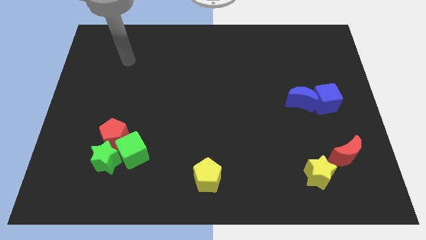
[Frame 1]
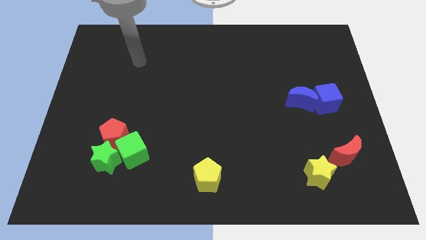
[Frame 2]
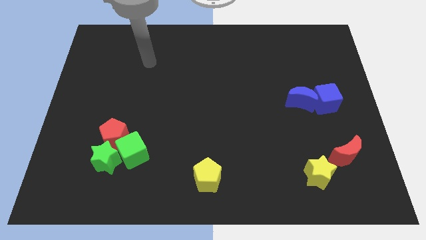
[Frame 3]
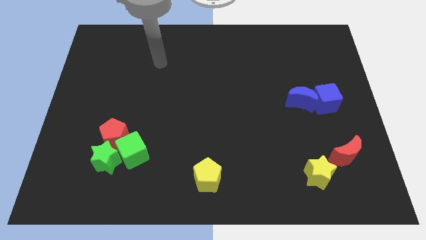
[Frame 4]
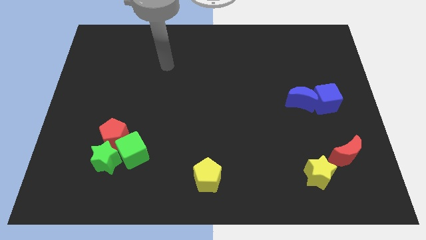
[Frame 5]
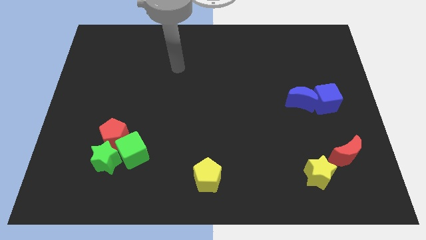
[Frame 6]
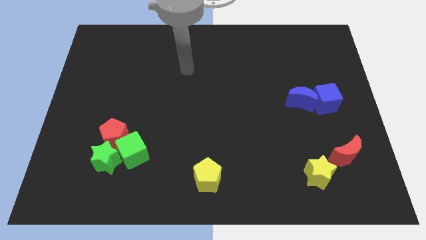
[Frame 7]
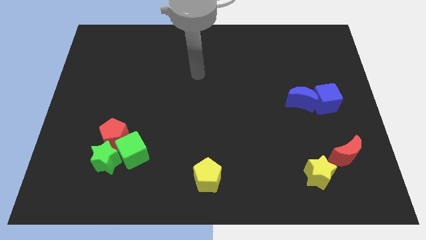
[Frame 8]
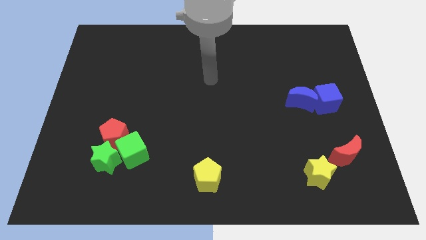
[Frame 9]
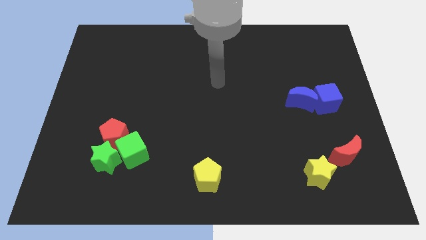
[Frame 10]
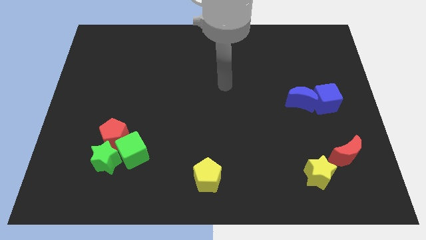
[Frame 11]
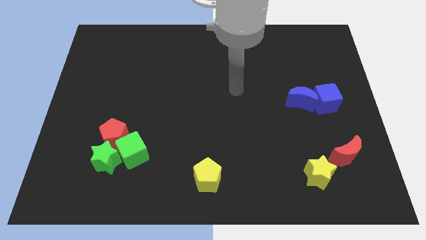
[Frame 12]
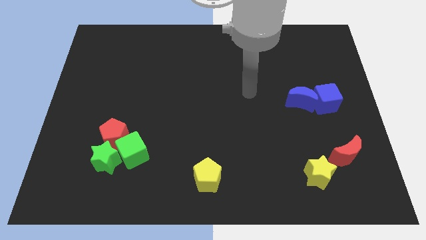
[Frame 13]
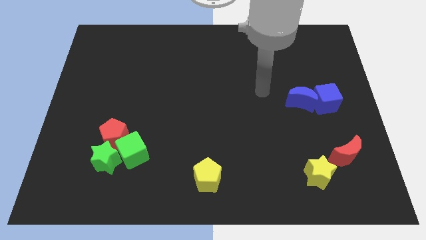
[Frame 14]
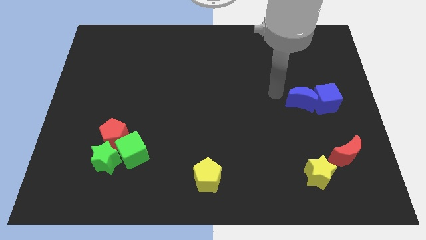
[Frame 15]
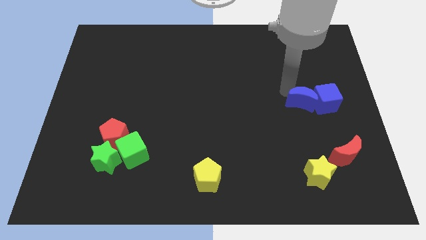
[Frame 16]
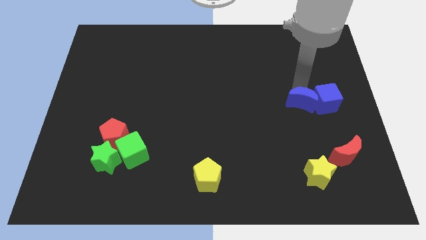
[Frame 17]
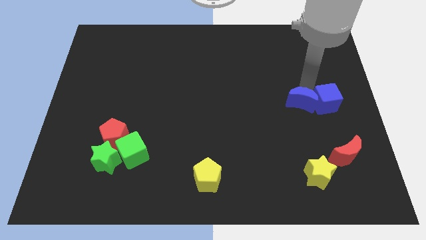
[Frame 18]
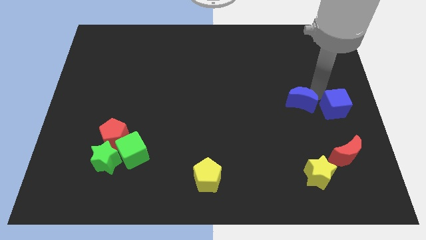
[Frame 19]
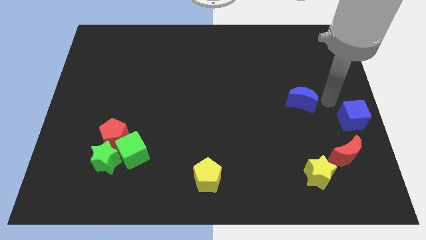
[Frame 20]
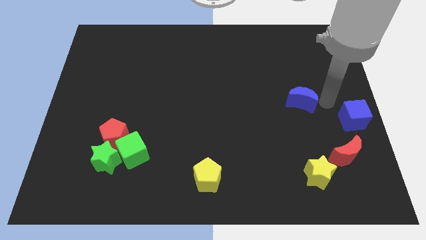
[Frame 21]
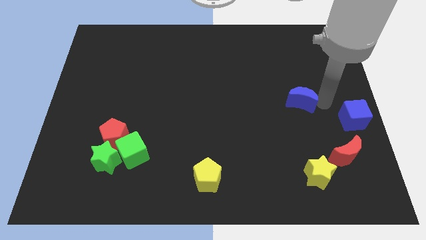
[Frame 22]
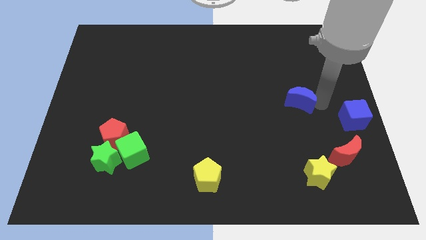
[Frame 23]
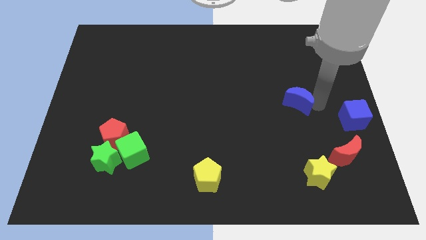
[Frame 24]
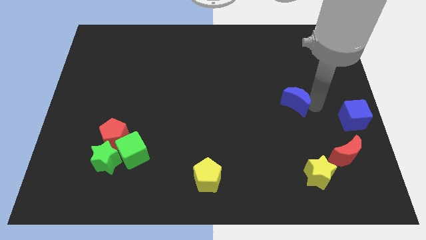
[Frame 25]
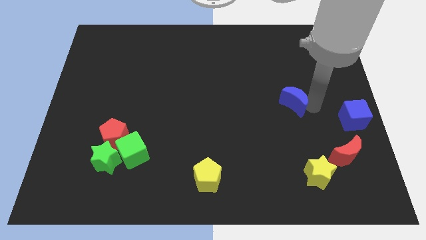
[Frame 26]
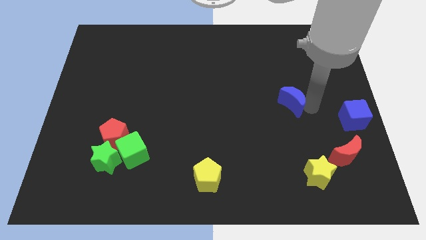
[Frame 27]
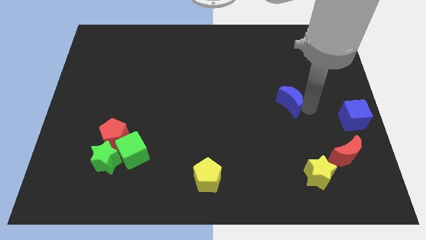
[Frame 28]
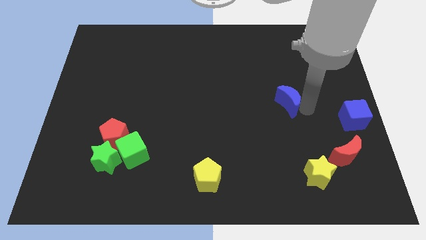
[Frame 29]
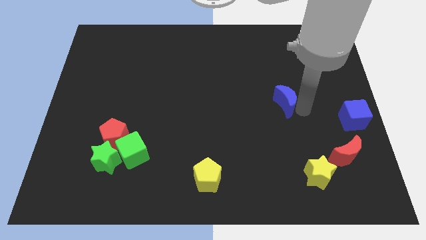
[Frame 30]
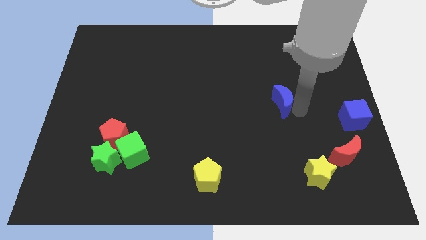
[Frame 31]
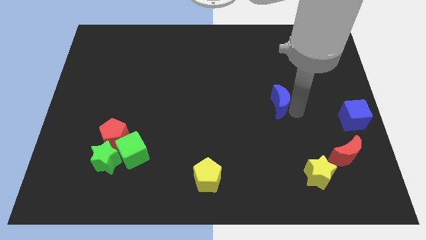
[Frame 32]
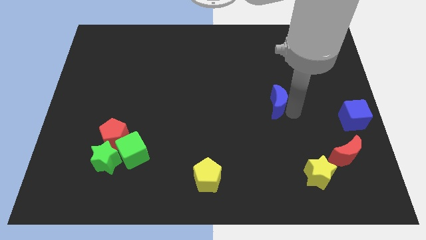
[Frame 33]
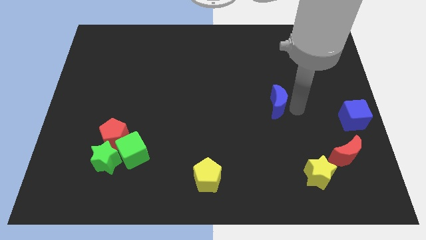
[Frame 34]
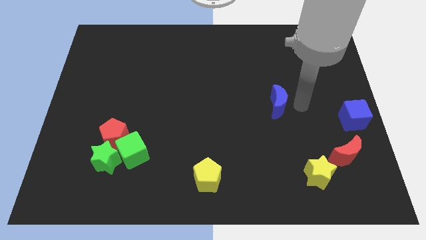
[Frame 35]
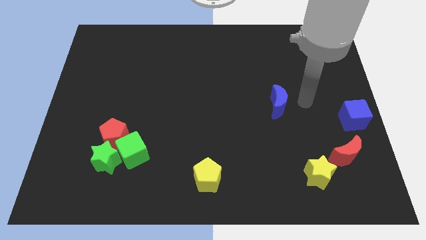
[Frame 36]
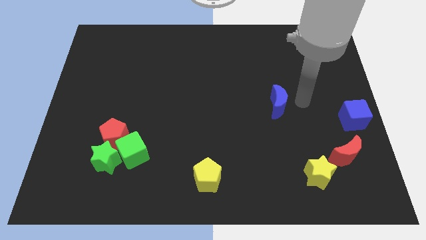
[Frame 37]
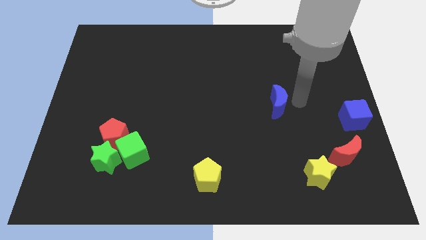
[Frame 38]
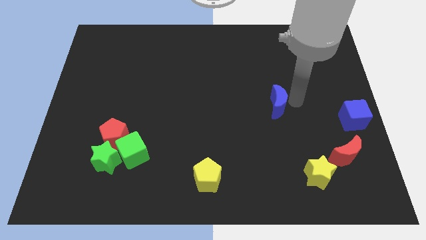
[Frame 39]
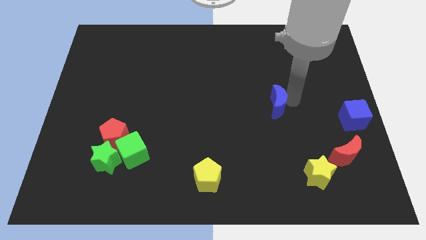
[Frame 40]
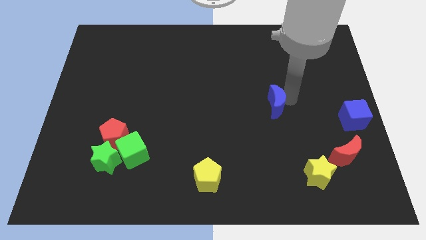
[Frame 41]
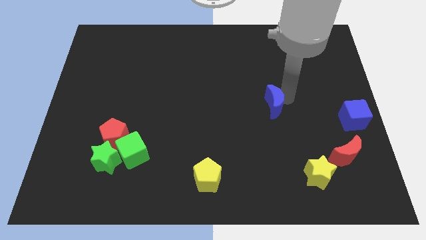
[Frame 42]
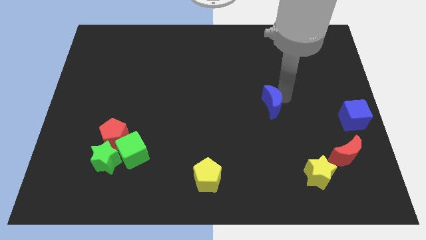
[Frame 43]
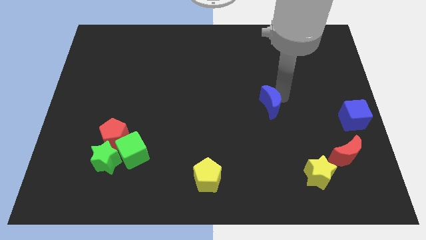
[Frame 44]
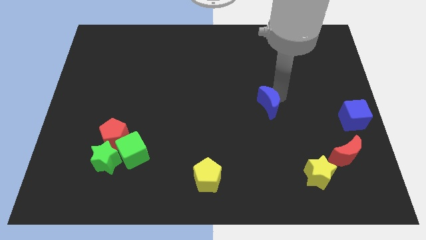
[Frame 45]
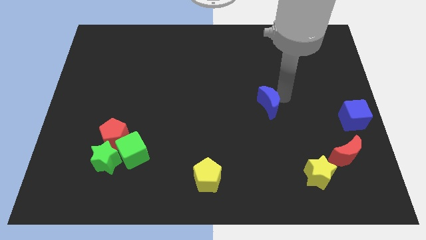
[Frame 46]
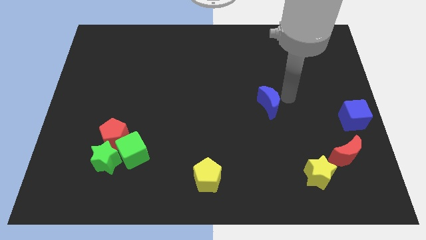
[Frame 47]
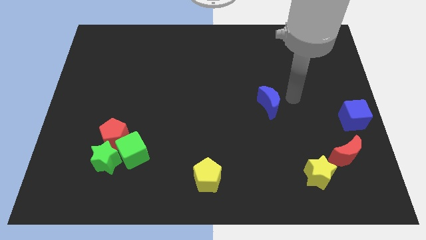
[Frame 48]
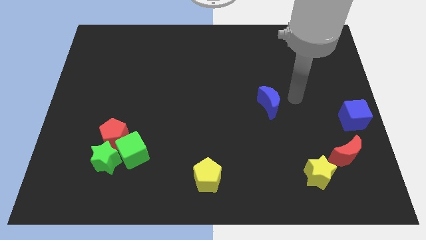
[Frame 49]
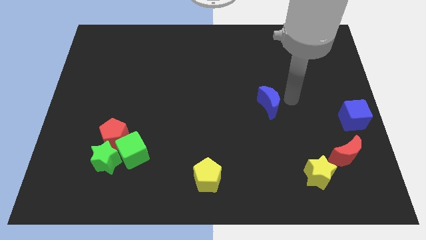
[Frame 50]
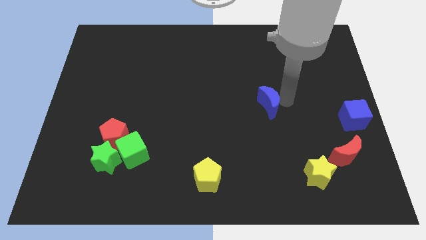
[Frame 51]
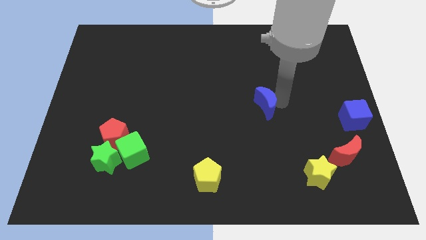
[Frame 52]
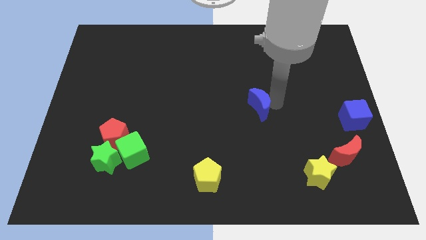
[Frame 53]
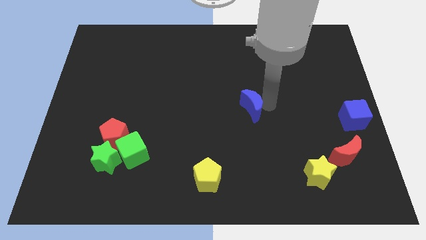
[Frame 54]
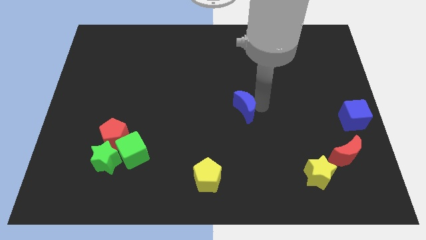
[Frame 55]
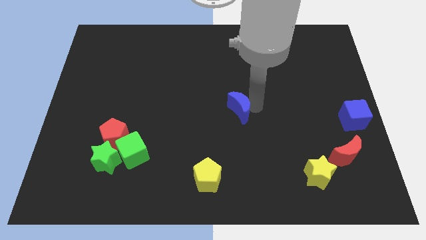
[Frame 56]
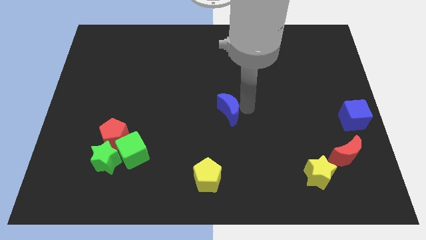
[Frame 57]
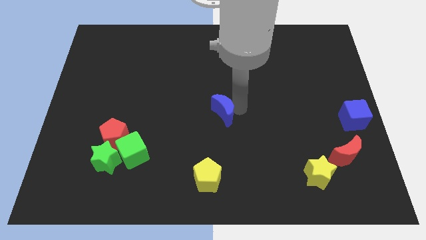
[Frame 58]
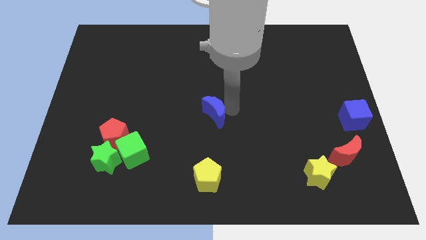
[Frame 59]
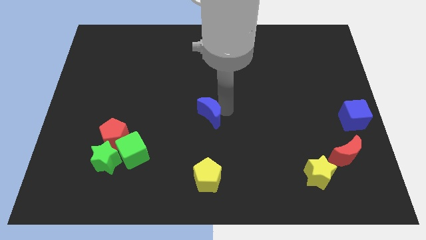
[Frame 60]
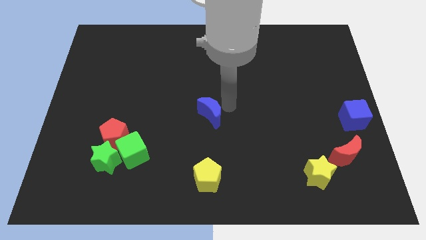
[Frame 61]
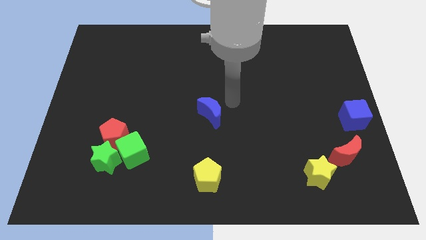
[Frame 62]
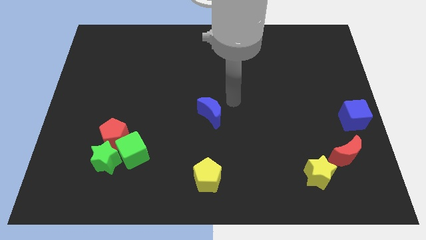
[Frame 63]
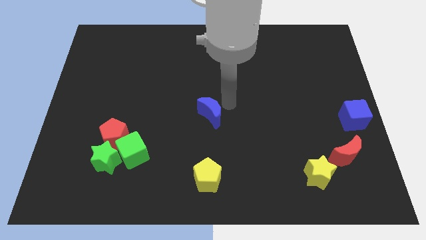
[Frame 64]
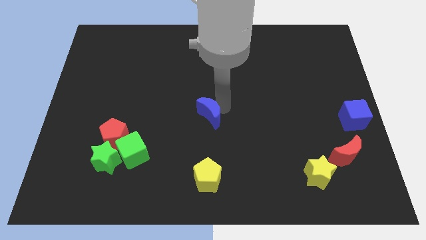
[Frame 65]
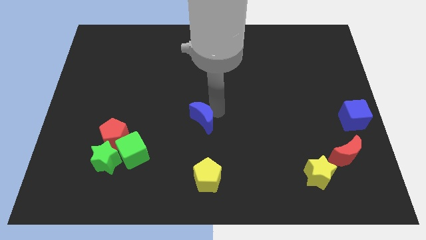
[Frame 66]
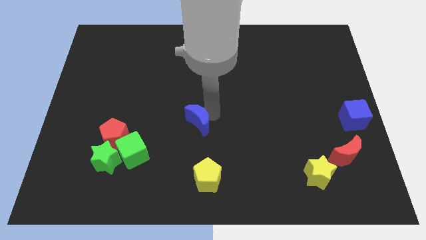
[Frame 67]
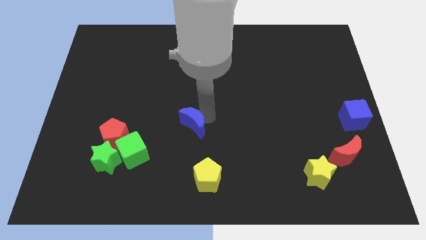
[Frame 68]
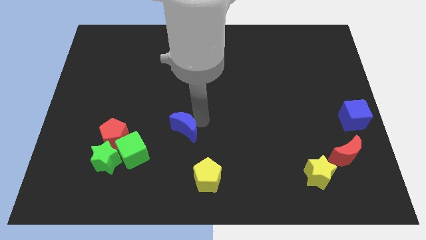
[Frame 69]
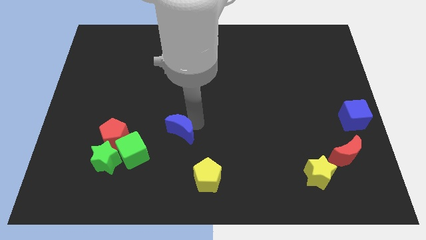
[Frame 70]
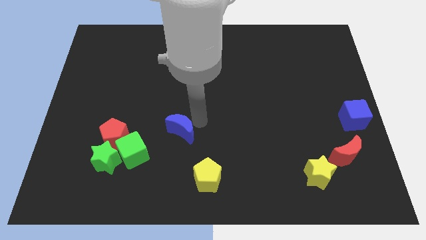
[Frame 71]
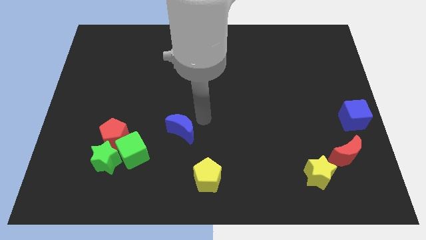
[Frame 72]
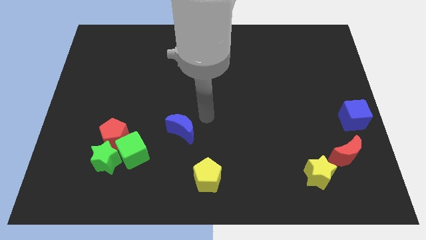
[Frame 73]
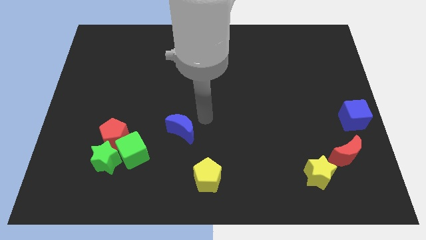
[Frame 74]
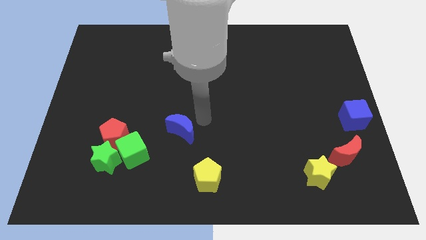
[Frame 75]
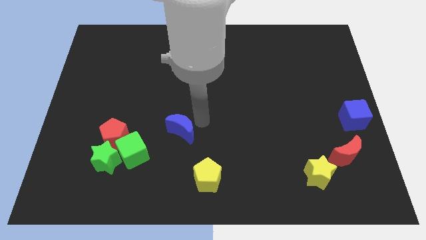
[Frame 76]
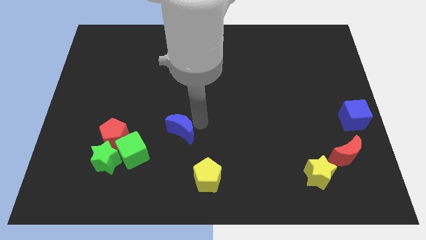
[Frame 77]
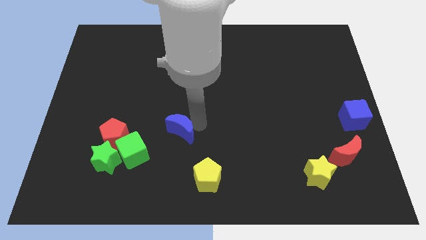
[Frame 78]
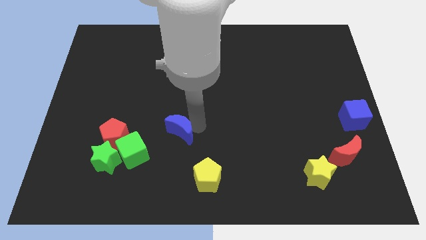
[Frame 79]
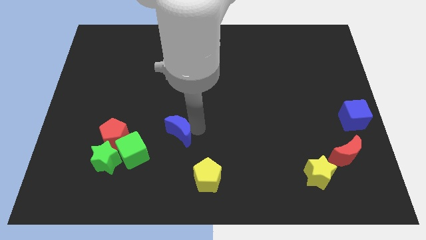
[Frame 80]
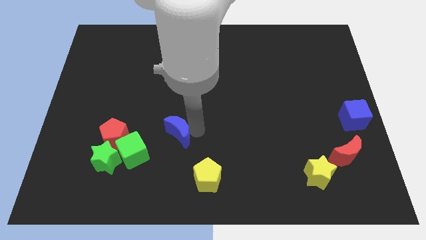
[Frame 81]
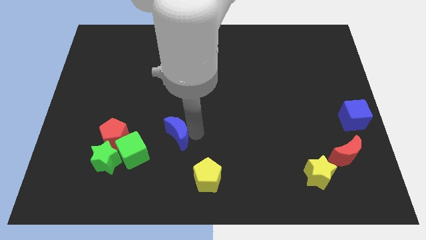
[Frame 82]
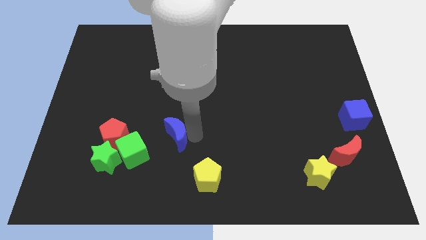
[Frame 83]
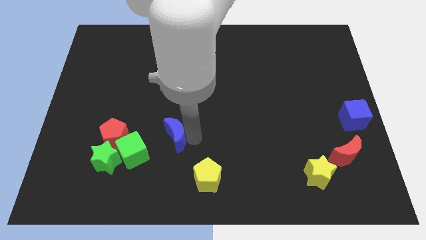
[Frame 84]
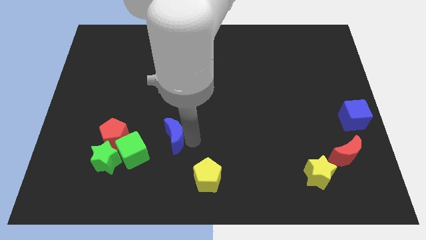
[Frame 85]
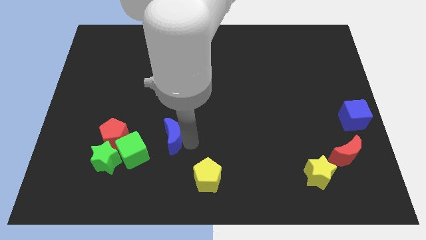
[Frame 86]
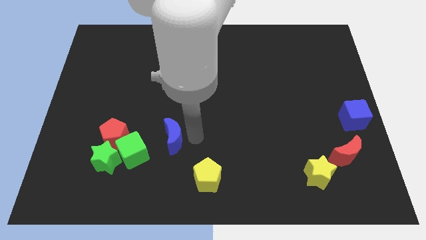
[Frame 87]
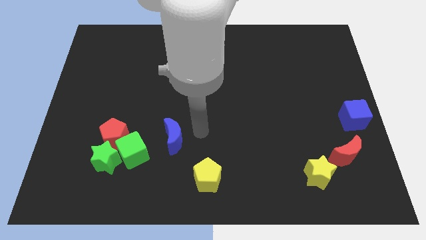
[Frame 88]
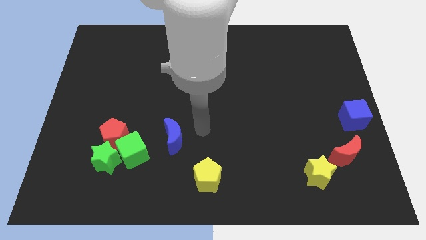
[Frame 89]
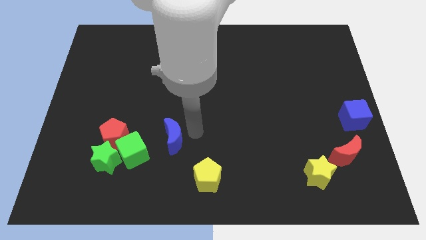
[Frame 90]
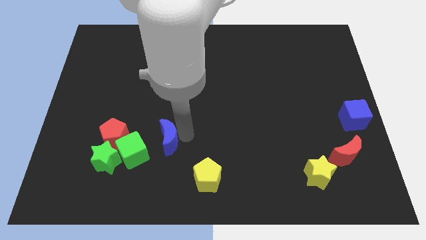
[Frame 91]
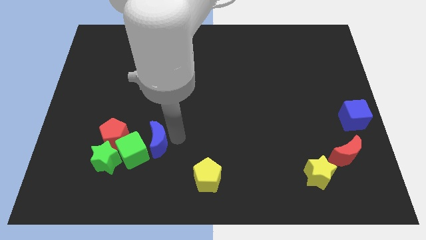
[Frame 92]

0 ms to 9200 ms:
push the blue moon close to the green cube
